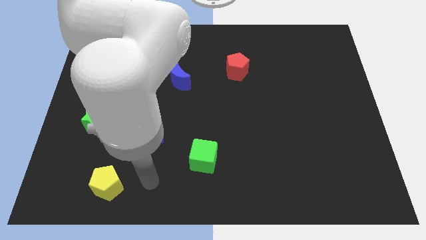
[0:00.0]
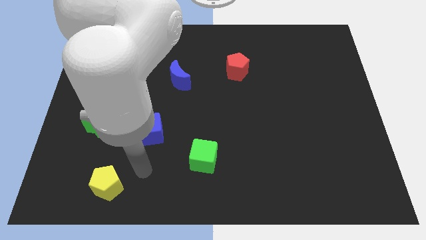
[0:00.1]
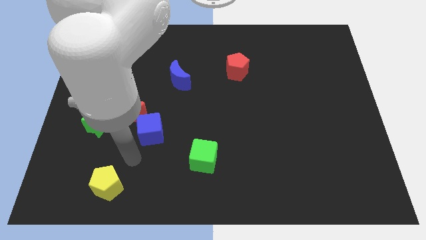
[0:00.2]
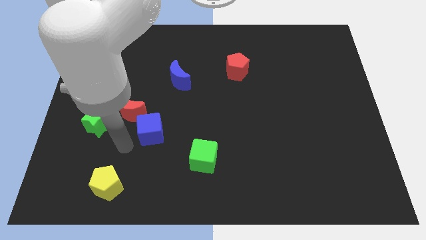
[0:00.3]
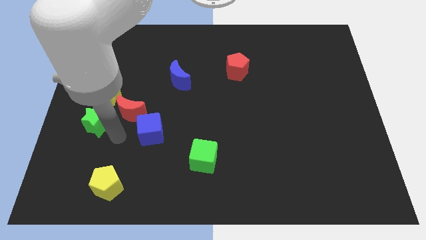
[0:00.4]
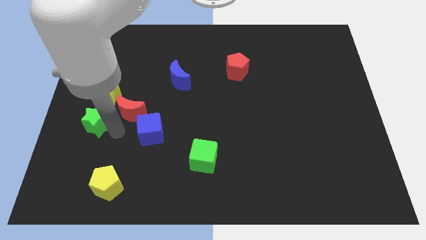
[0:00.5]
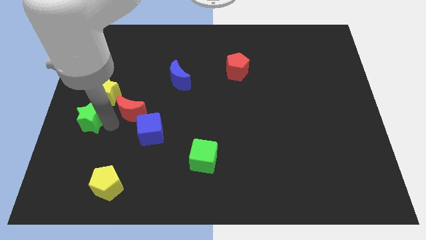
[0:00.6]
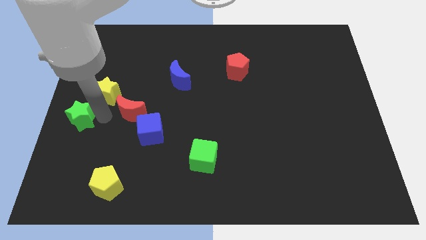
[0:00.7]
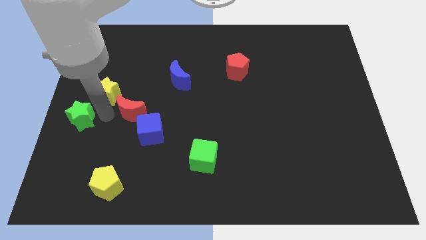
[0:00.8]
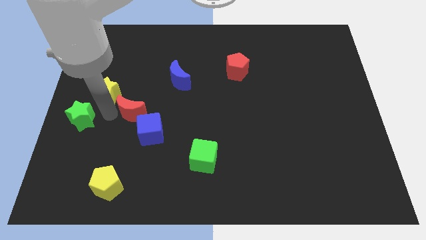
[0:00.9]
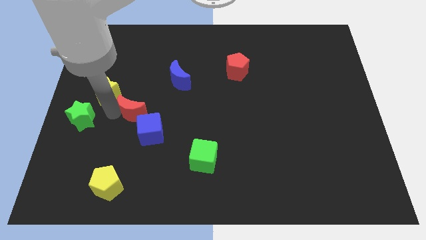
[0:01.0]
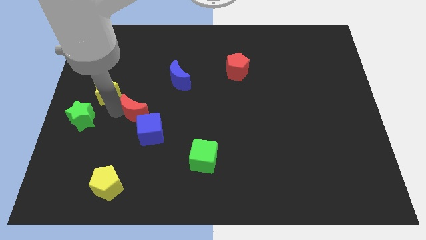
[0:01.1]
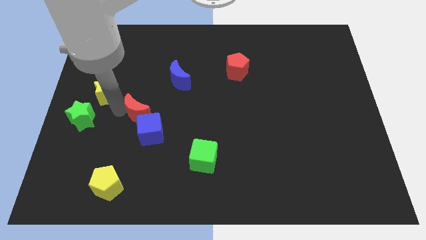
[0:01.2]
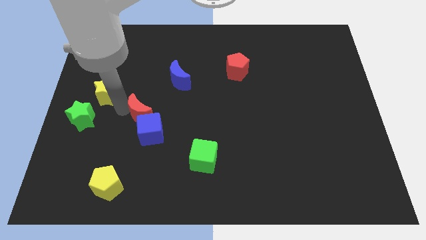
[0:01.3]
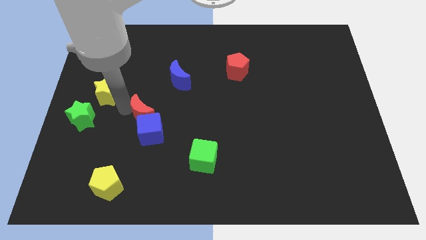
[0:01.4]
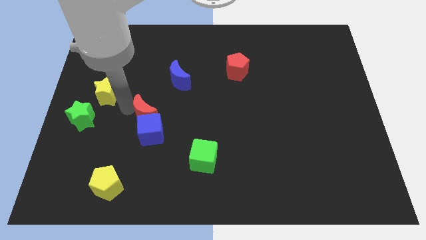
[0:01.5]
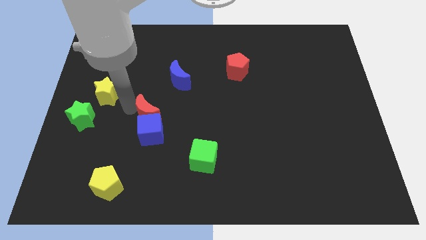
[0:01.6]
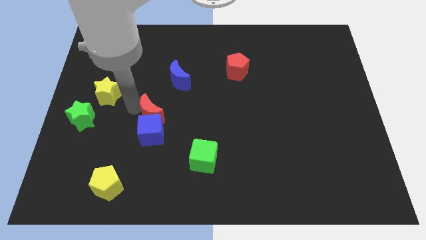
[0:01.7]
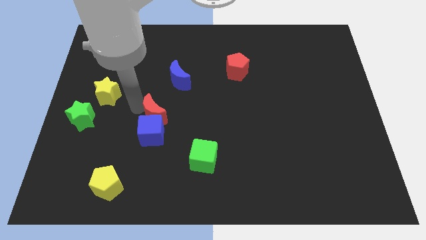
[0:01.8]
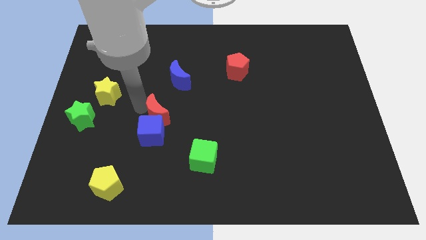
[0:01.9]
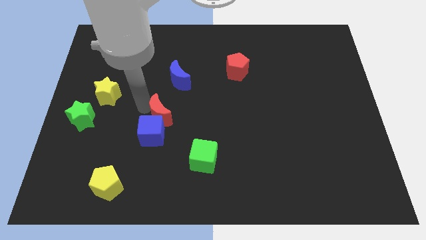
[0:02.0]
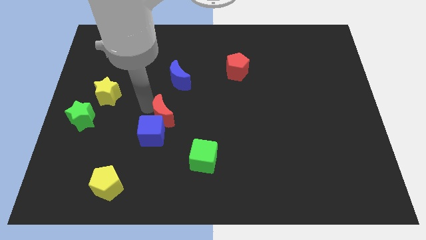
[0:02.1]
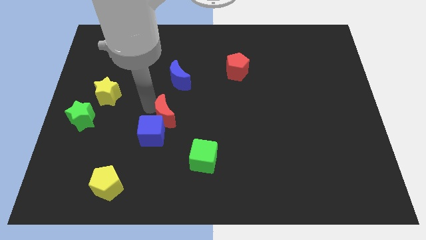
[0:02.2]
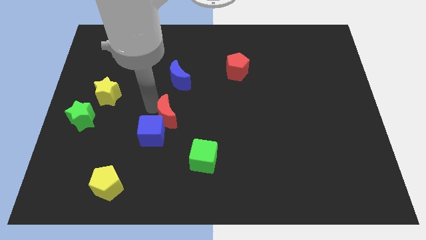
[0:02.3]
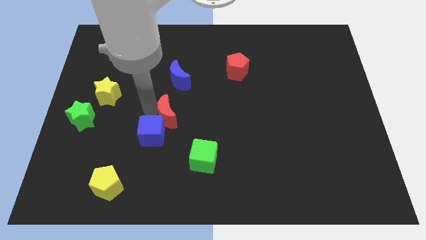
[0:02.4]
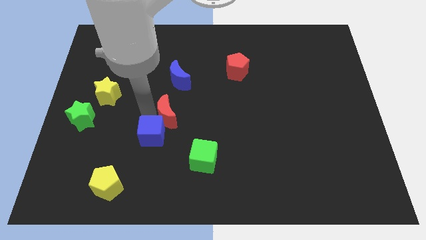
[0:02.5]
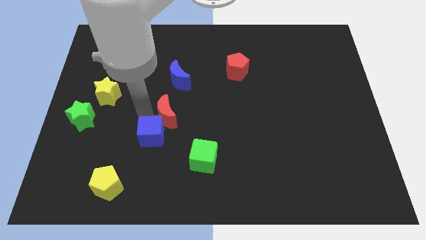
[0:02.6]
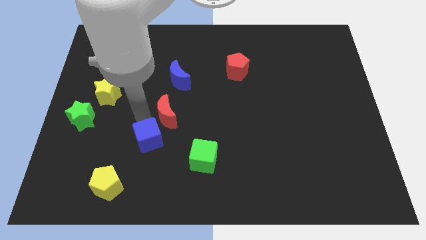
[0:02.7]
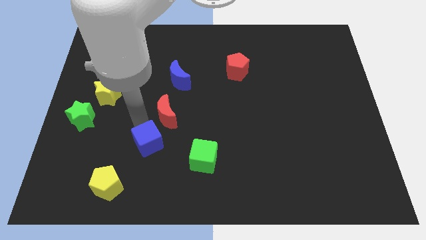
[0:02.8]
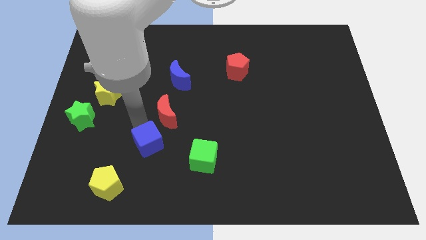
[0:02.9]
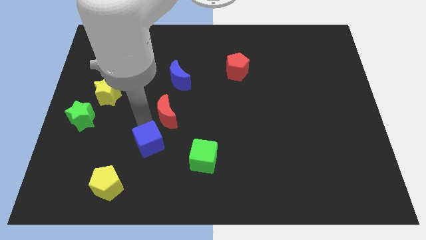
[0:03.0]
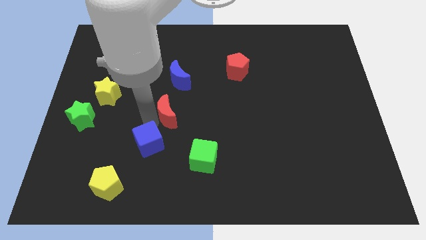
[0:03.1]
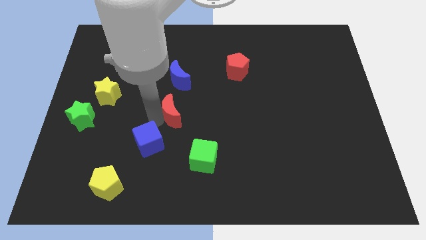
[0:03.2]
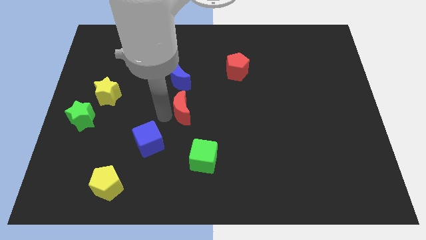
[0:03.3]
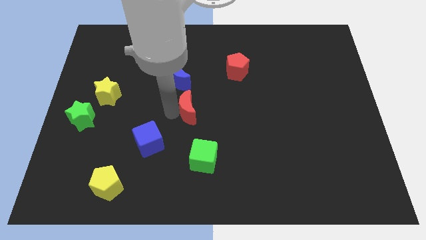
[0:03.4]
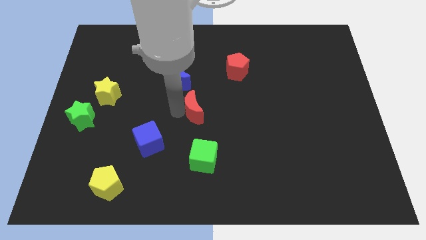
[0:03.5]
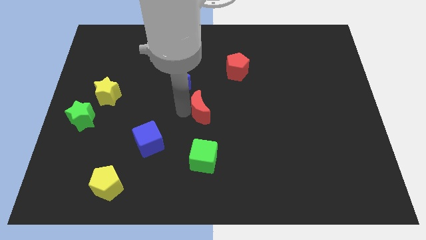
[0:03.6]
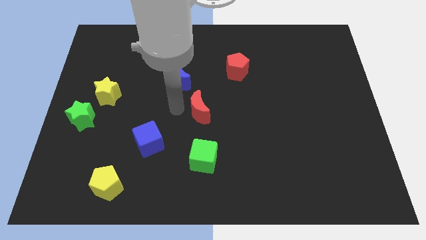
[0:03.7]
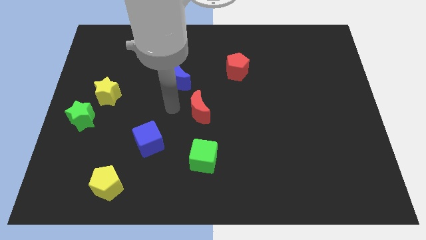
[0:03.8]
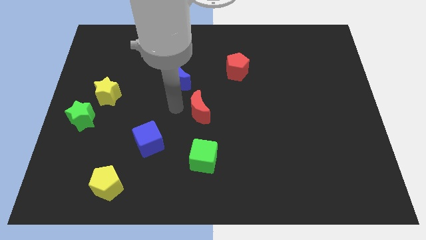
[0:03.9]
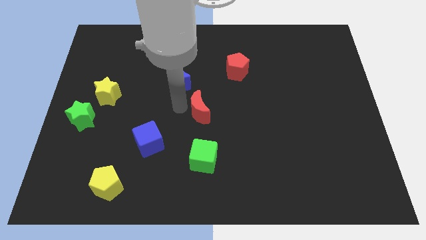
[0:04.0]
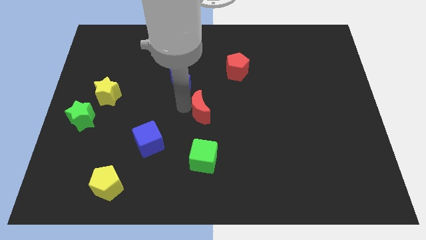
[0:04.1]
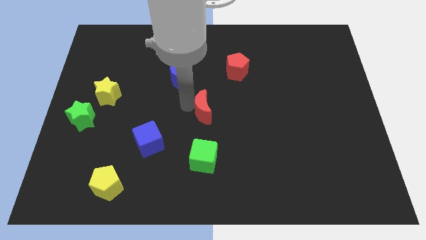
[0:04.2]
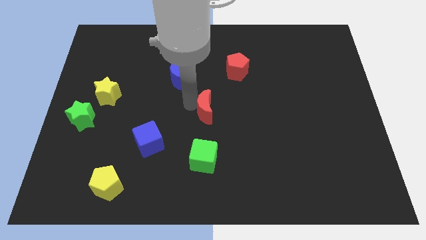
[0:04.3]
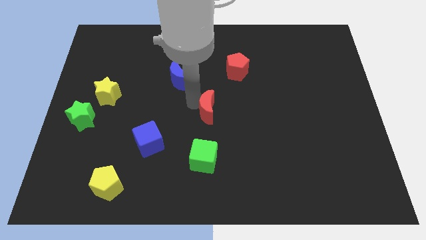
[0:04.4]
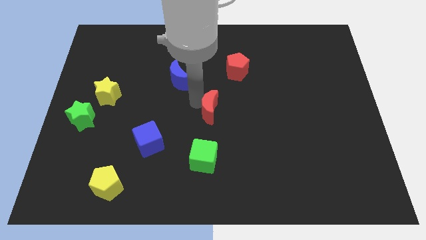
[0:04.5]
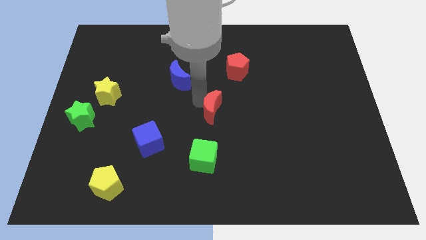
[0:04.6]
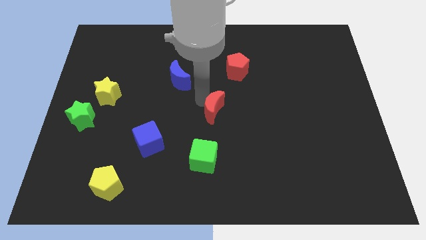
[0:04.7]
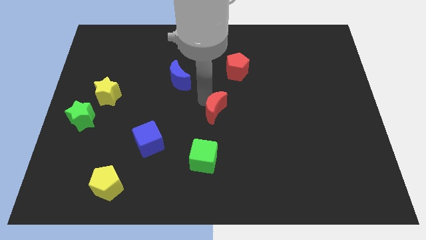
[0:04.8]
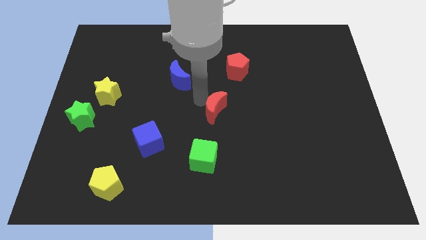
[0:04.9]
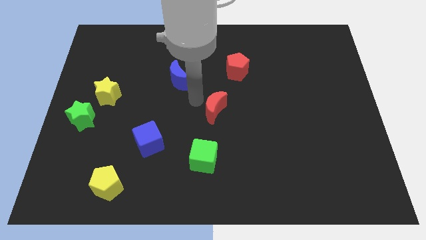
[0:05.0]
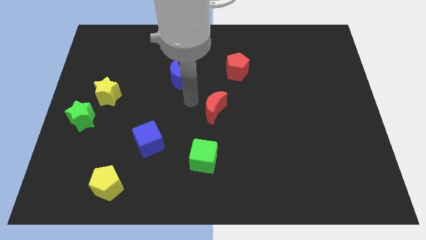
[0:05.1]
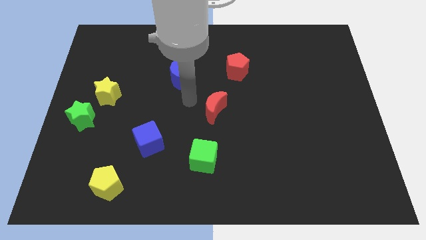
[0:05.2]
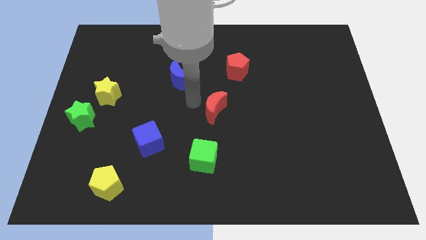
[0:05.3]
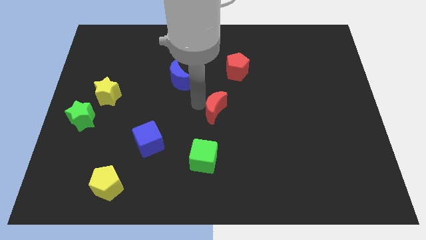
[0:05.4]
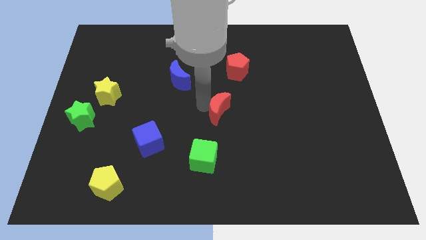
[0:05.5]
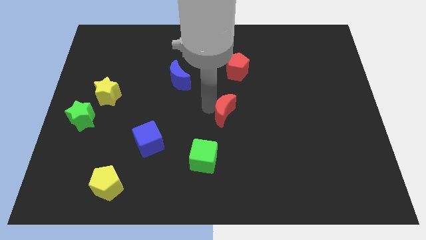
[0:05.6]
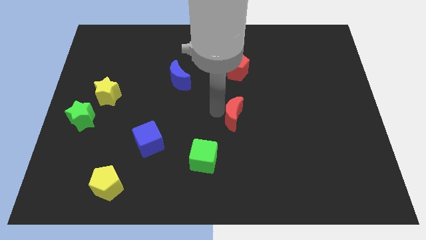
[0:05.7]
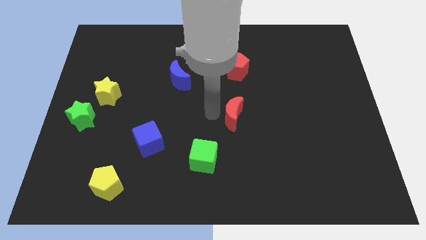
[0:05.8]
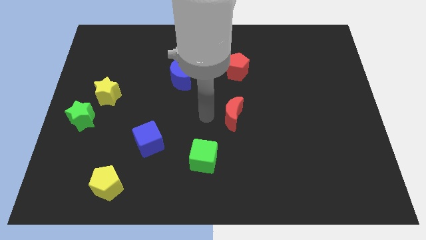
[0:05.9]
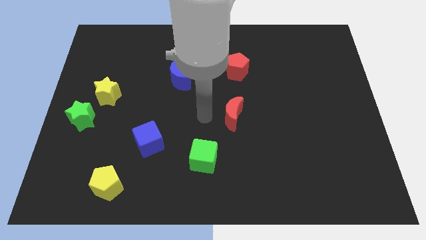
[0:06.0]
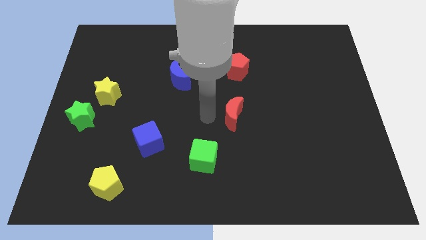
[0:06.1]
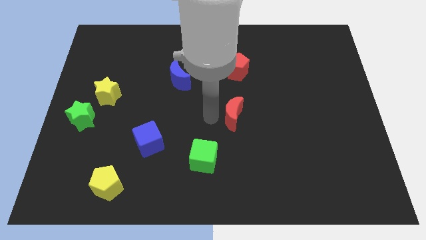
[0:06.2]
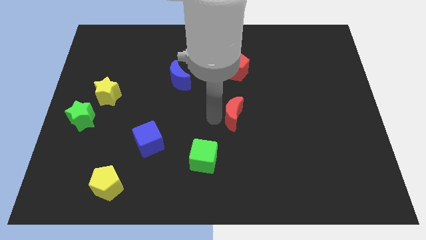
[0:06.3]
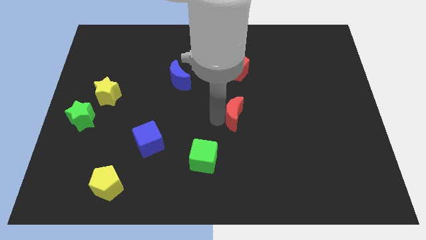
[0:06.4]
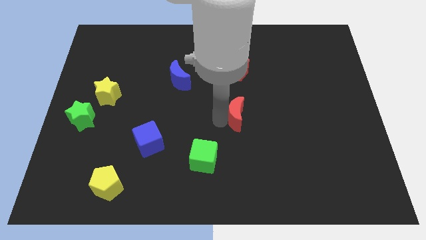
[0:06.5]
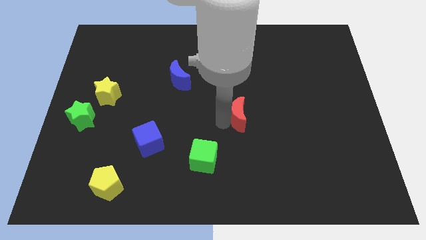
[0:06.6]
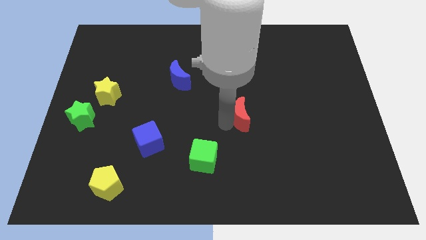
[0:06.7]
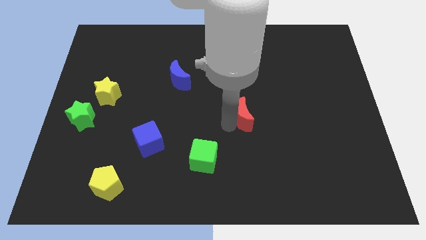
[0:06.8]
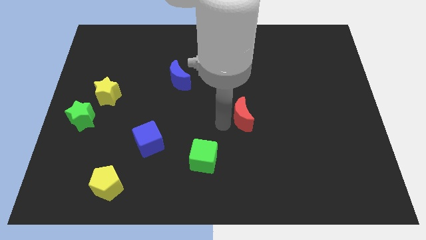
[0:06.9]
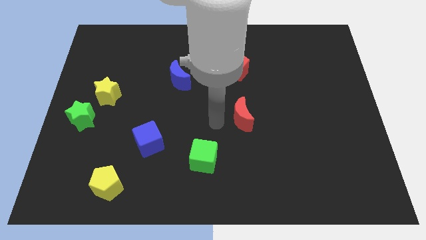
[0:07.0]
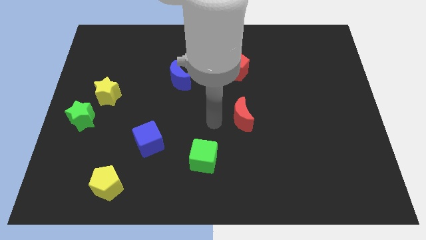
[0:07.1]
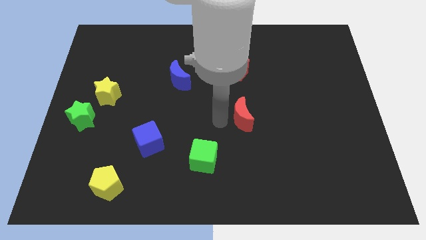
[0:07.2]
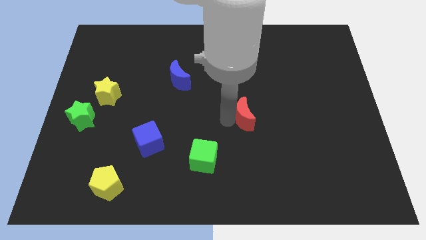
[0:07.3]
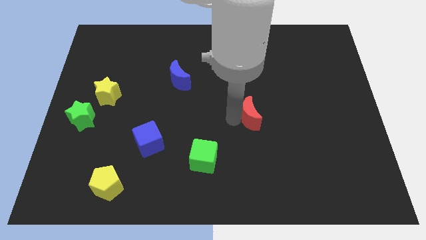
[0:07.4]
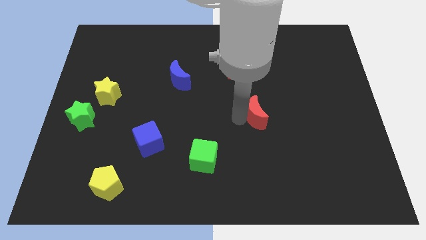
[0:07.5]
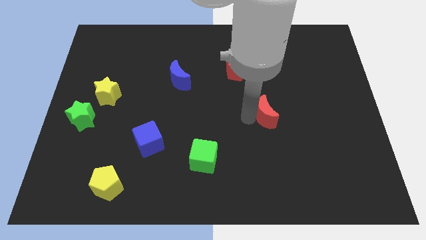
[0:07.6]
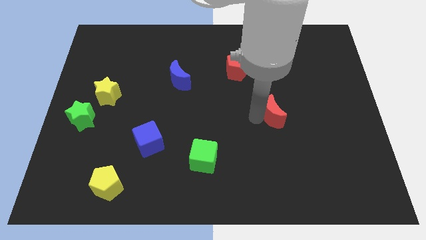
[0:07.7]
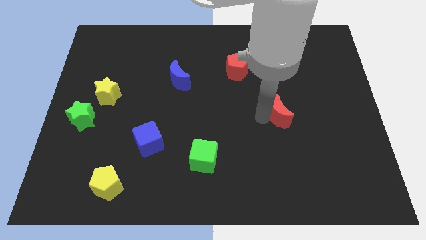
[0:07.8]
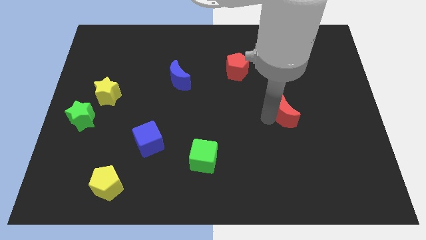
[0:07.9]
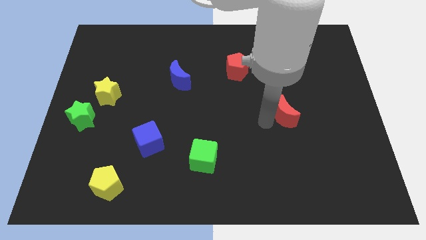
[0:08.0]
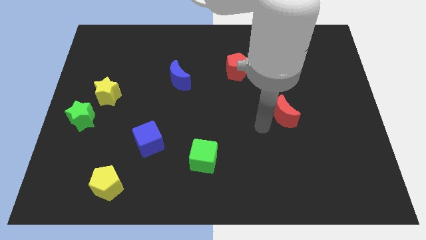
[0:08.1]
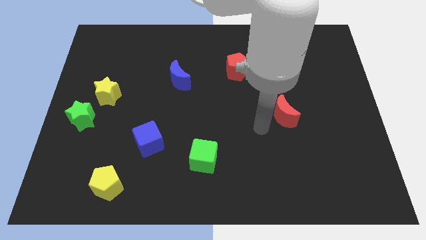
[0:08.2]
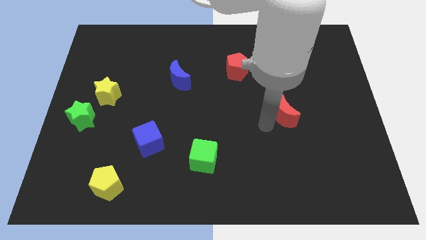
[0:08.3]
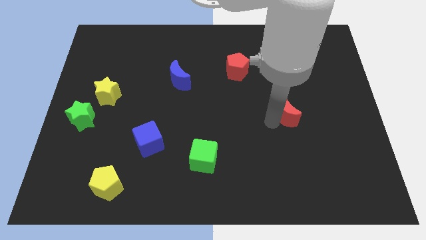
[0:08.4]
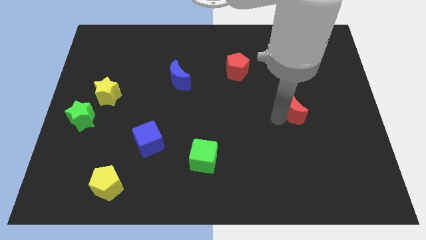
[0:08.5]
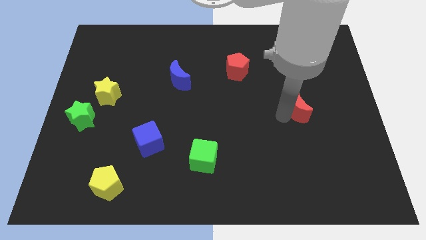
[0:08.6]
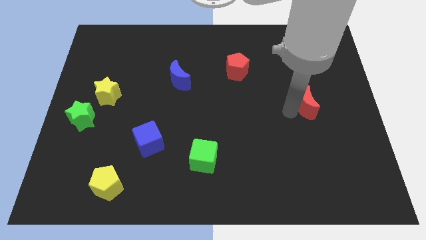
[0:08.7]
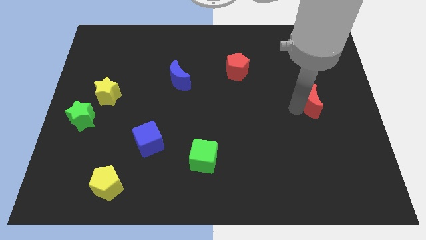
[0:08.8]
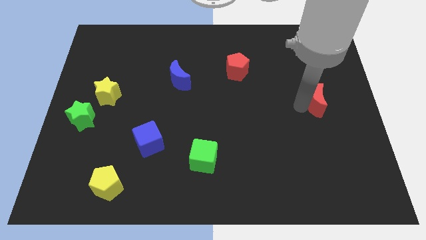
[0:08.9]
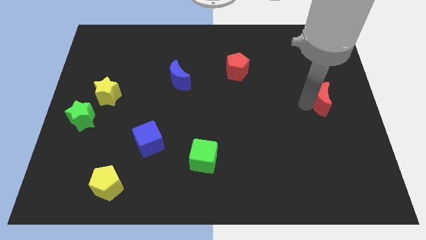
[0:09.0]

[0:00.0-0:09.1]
push the red moon to the center right
